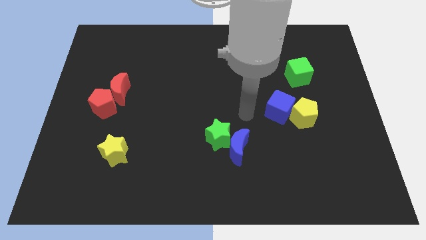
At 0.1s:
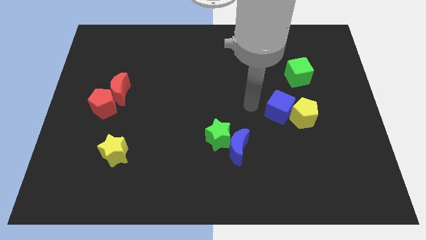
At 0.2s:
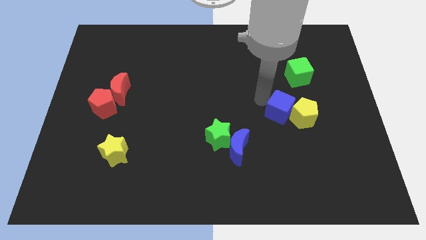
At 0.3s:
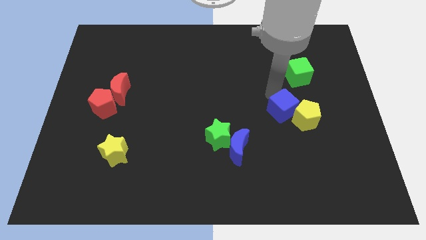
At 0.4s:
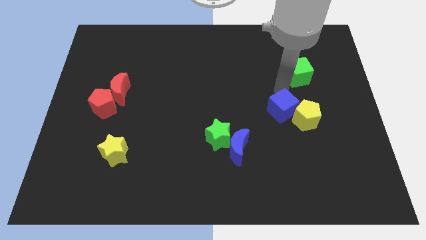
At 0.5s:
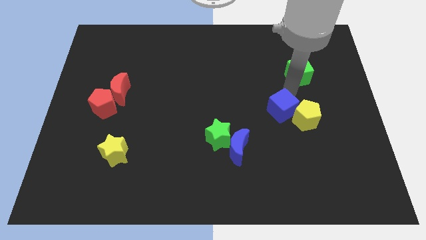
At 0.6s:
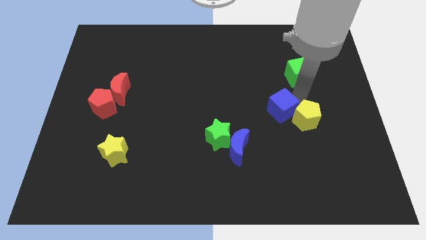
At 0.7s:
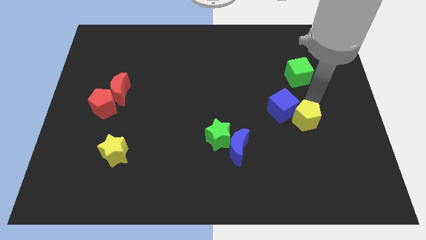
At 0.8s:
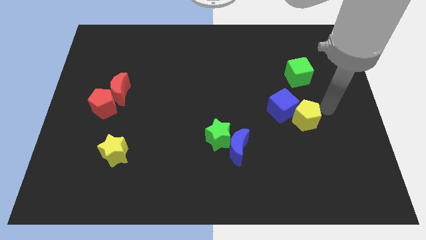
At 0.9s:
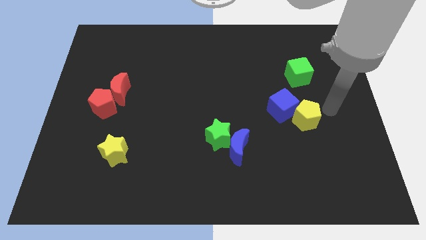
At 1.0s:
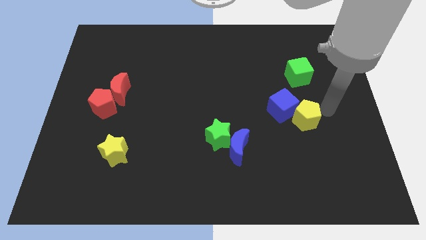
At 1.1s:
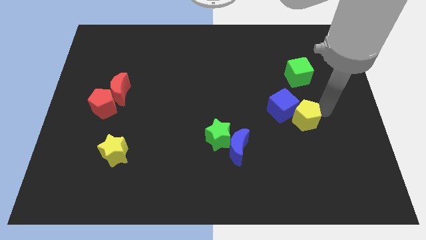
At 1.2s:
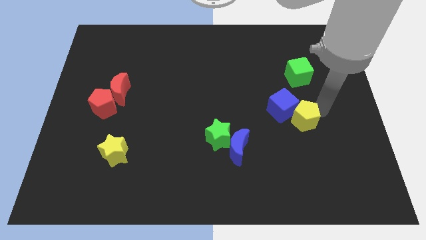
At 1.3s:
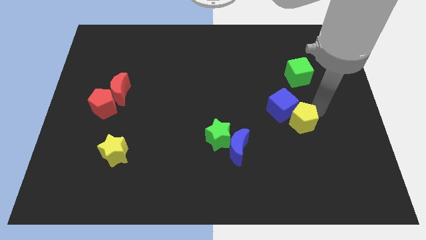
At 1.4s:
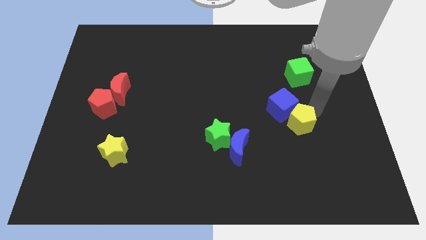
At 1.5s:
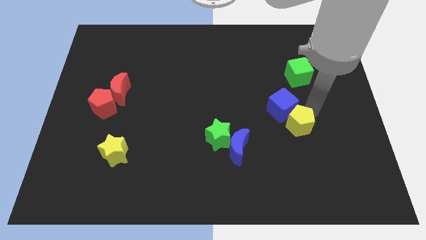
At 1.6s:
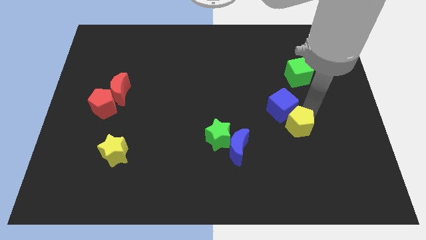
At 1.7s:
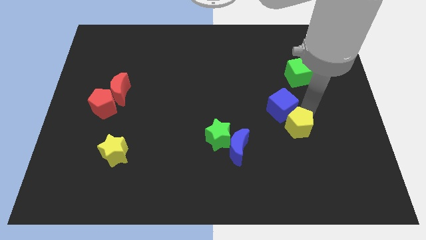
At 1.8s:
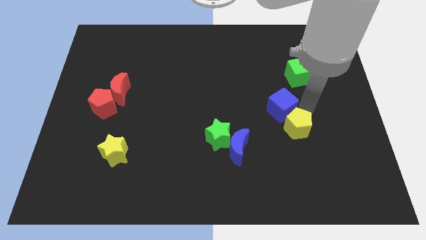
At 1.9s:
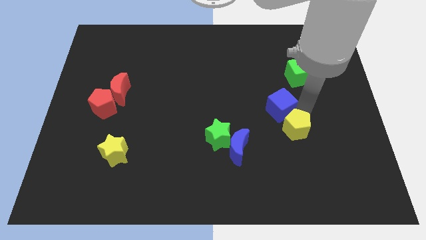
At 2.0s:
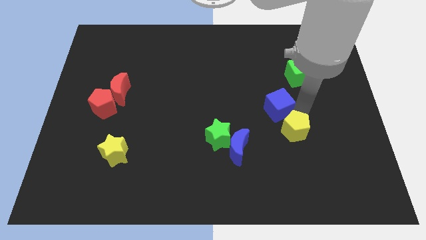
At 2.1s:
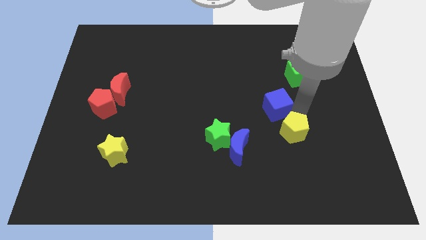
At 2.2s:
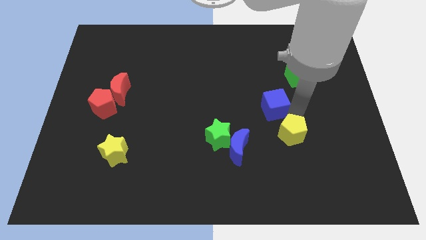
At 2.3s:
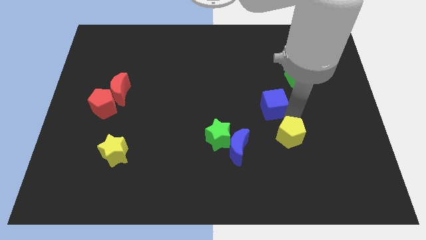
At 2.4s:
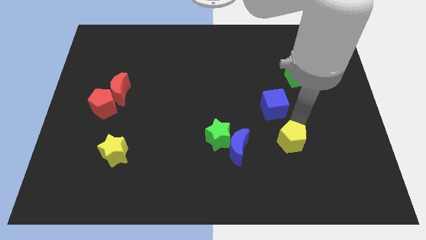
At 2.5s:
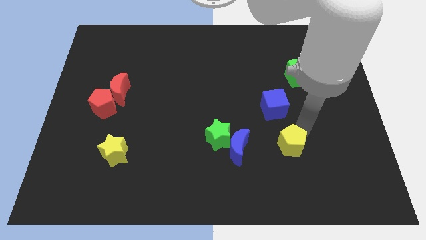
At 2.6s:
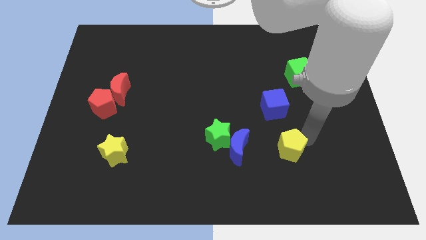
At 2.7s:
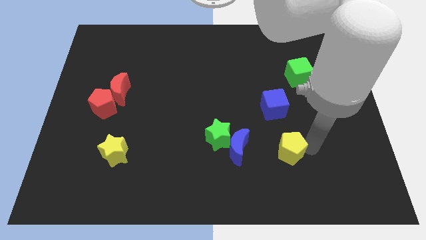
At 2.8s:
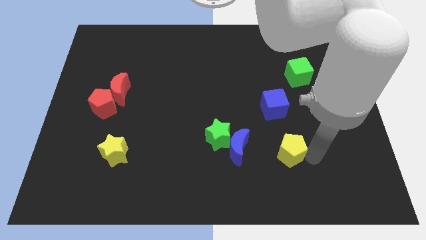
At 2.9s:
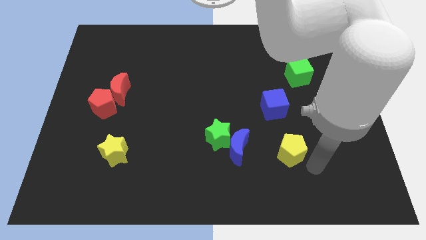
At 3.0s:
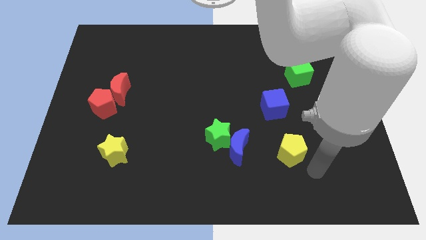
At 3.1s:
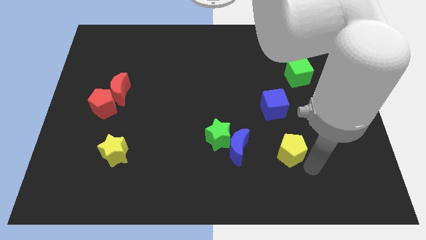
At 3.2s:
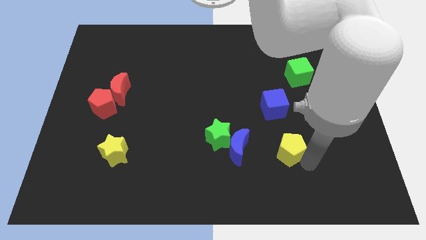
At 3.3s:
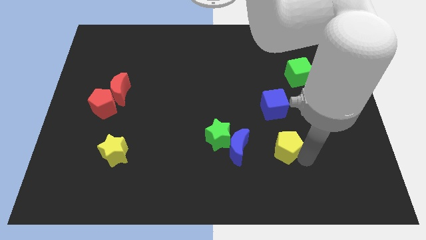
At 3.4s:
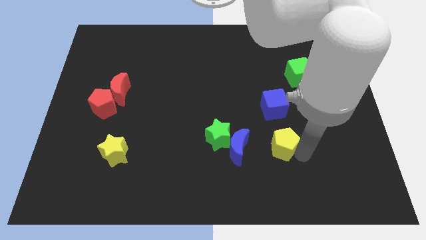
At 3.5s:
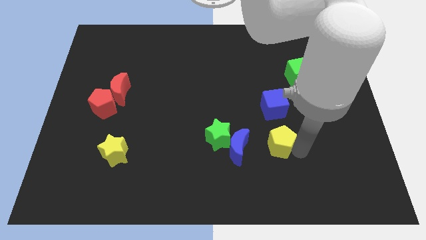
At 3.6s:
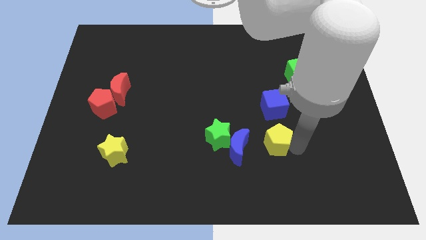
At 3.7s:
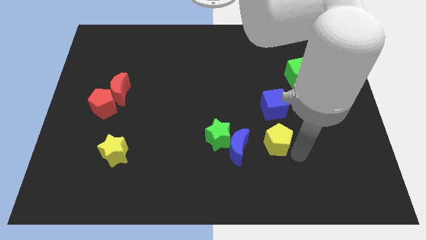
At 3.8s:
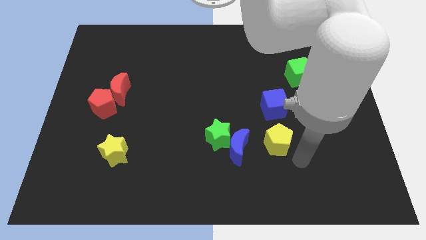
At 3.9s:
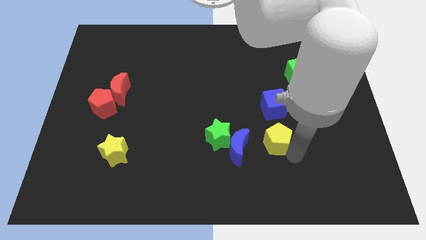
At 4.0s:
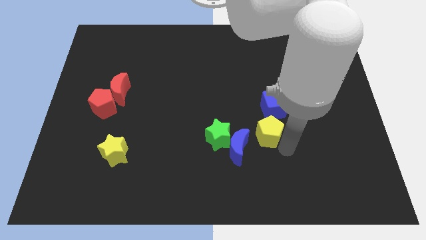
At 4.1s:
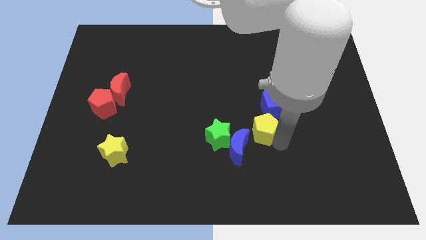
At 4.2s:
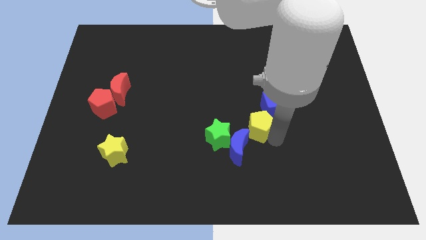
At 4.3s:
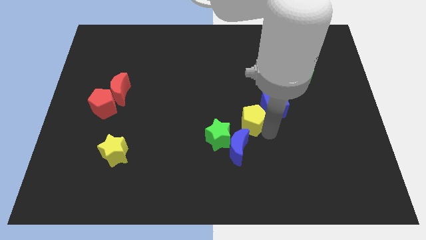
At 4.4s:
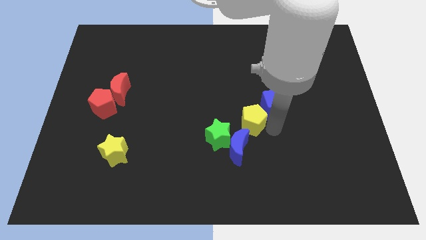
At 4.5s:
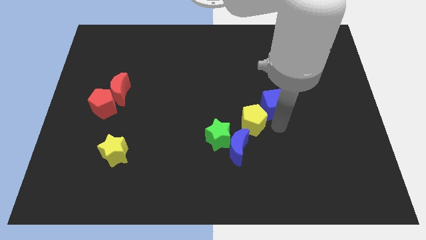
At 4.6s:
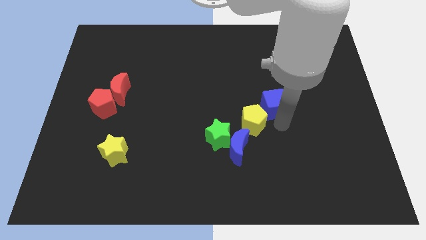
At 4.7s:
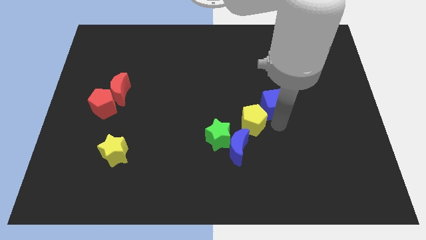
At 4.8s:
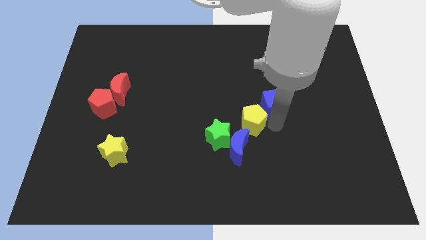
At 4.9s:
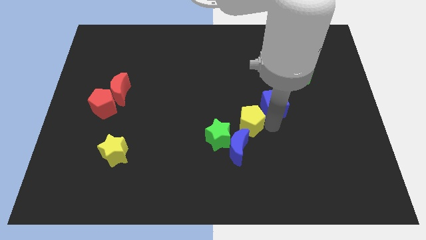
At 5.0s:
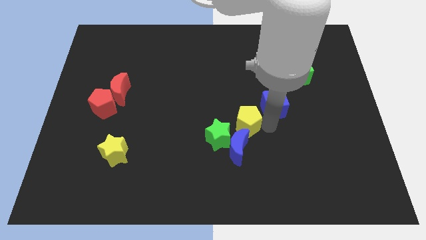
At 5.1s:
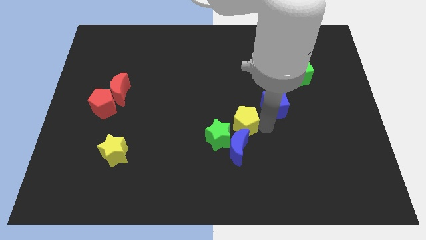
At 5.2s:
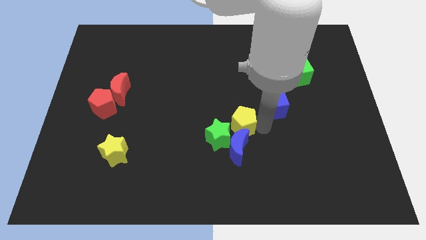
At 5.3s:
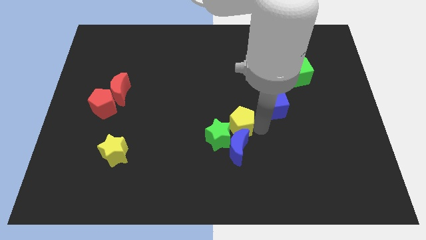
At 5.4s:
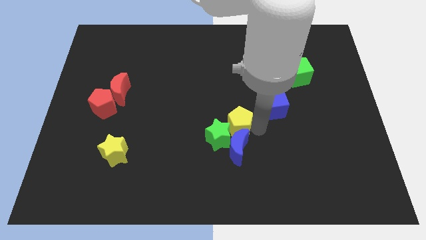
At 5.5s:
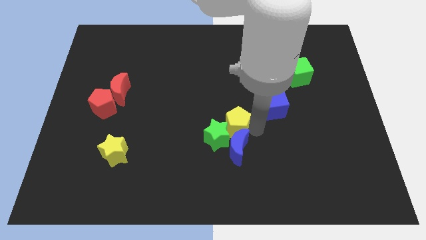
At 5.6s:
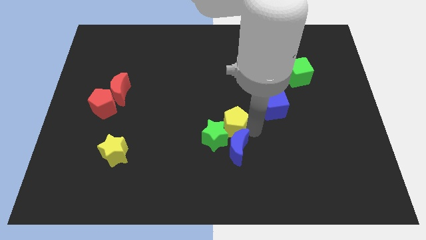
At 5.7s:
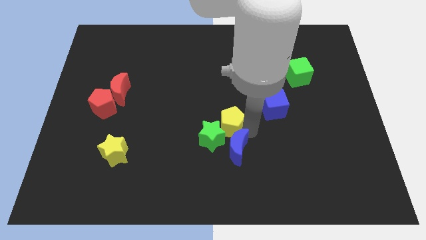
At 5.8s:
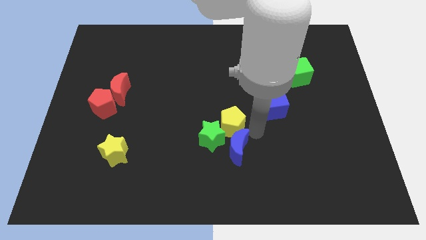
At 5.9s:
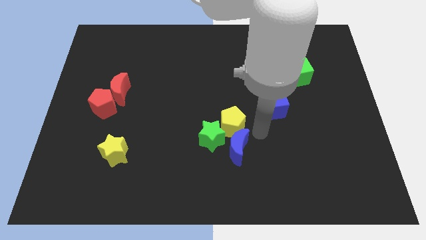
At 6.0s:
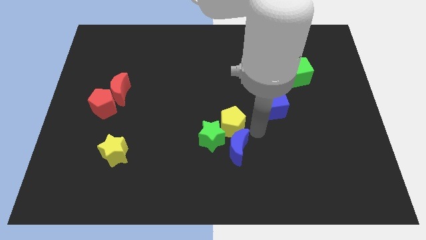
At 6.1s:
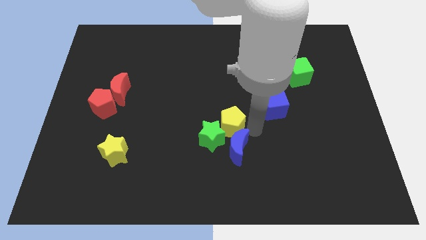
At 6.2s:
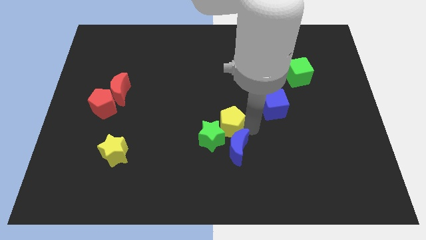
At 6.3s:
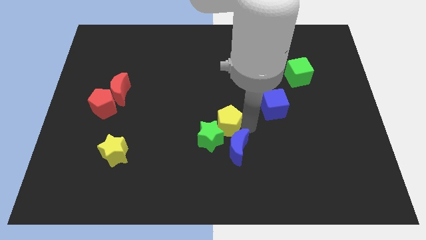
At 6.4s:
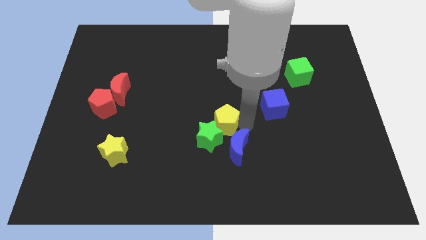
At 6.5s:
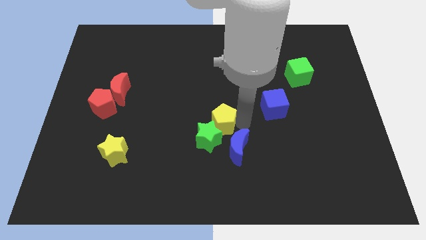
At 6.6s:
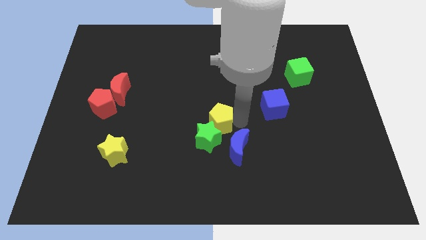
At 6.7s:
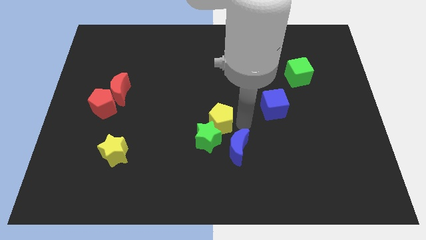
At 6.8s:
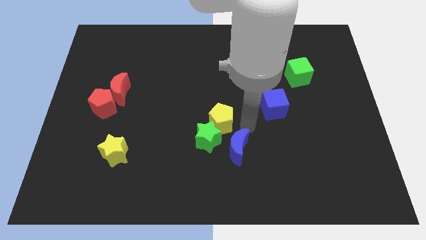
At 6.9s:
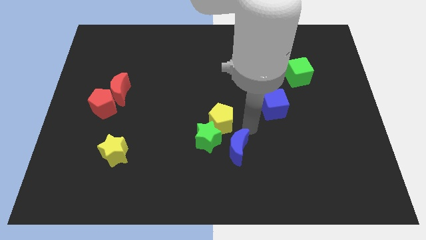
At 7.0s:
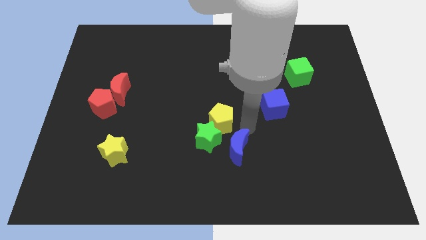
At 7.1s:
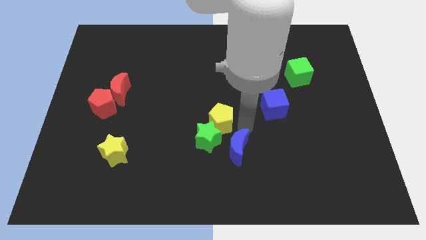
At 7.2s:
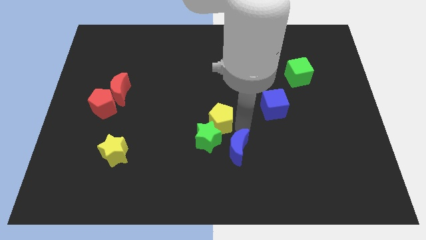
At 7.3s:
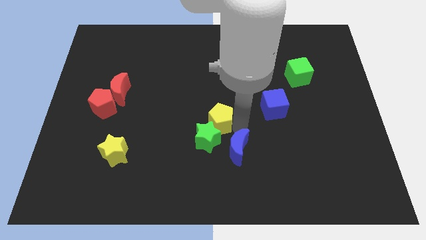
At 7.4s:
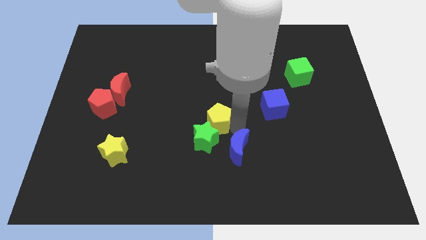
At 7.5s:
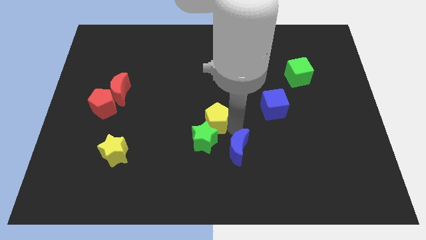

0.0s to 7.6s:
slide the yellow pentagon left

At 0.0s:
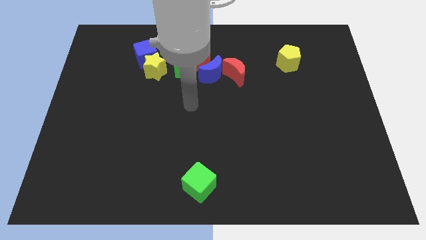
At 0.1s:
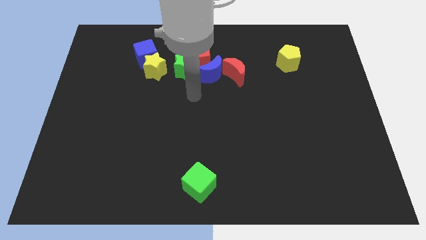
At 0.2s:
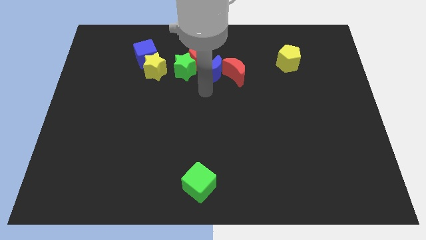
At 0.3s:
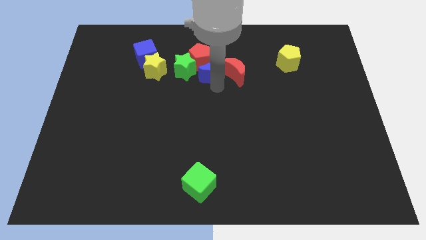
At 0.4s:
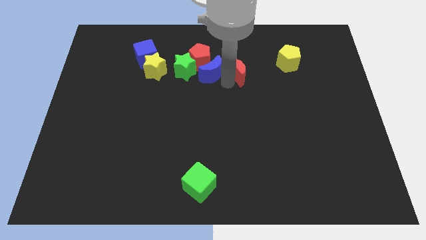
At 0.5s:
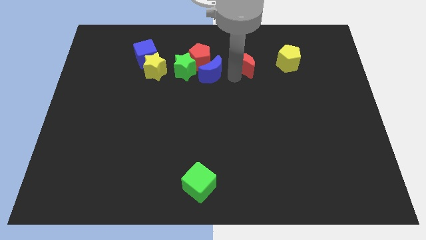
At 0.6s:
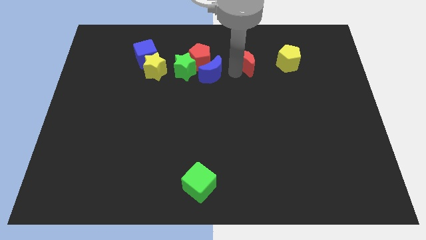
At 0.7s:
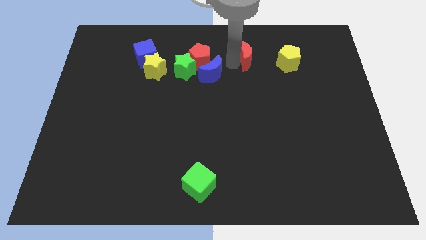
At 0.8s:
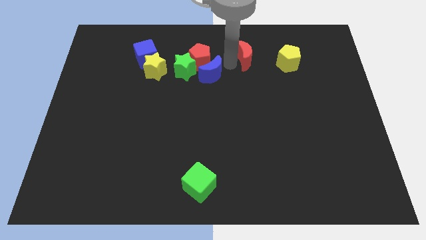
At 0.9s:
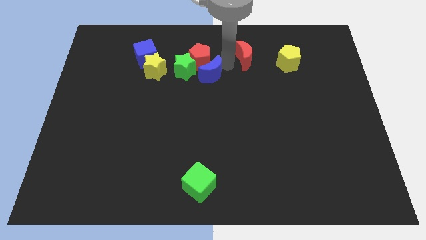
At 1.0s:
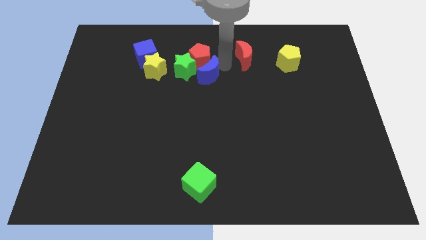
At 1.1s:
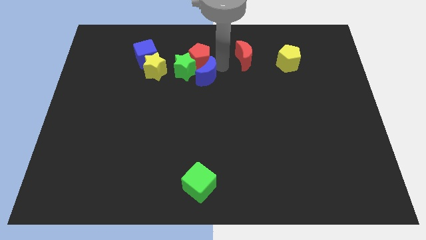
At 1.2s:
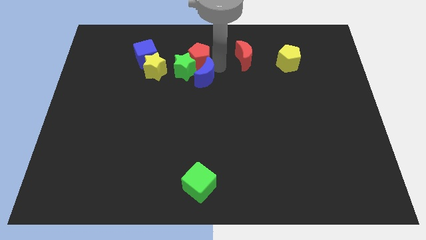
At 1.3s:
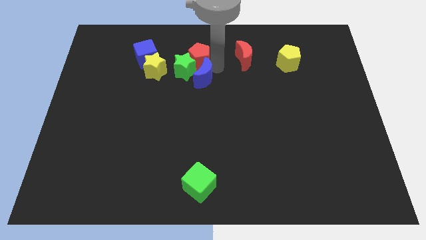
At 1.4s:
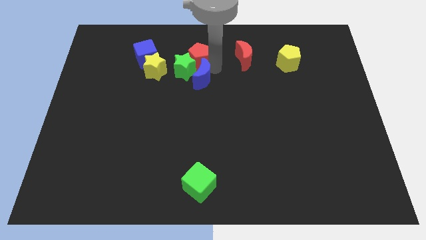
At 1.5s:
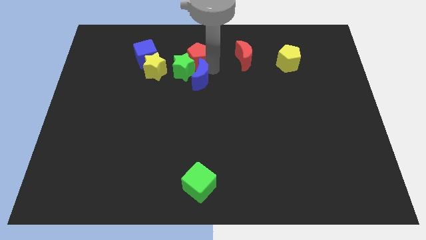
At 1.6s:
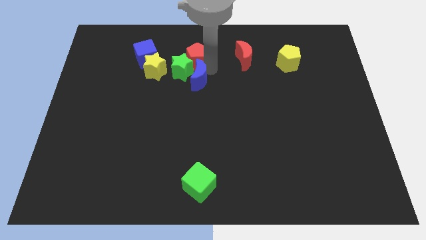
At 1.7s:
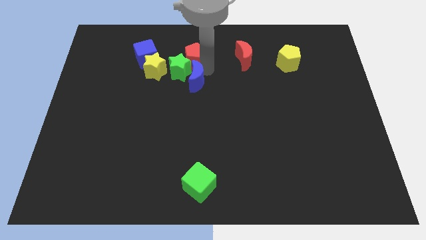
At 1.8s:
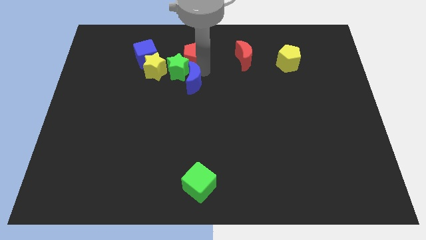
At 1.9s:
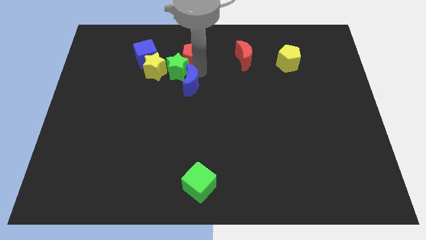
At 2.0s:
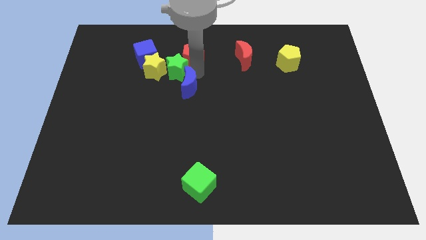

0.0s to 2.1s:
push the blue moon downwards and to the left a bit
